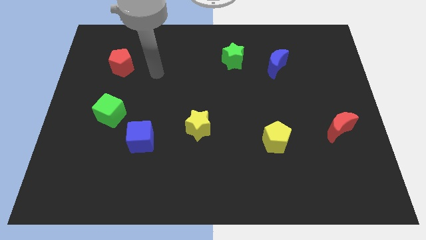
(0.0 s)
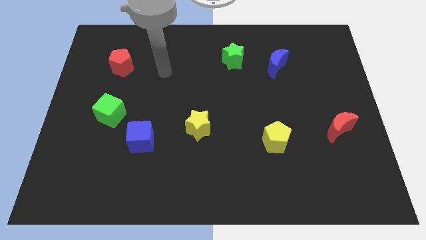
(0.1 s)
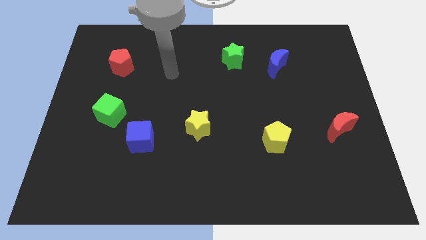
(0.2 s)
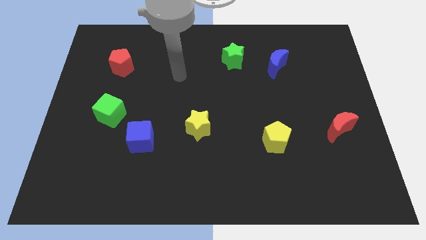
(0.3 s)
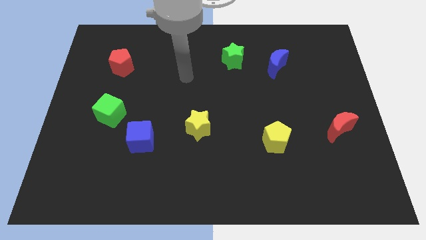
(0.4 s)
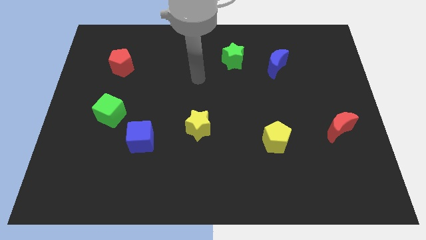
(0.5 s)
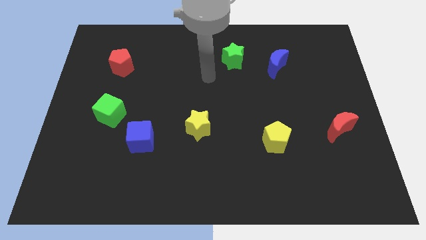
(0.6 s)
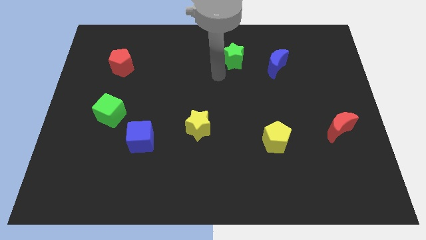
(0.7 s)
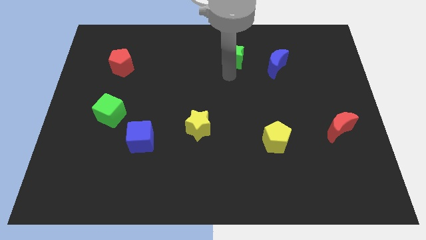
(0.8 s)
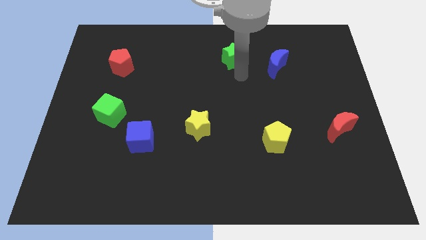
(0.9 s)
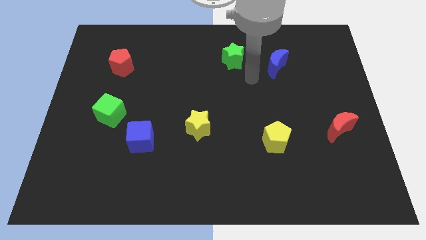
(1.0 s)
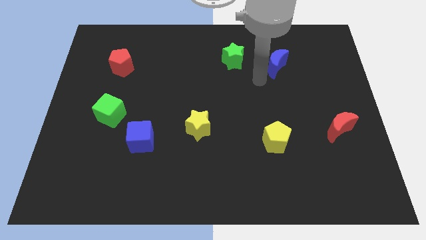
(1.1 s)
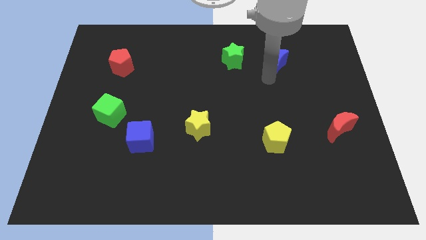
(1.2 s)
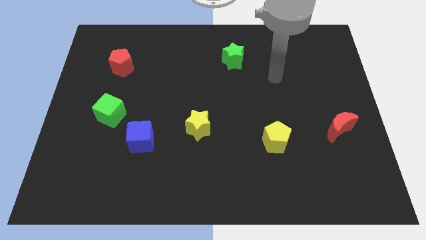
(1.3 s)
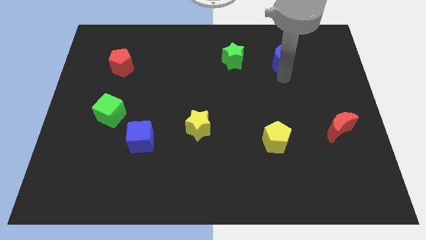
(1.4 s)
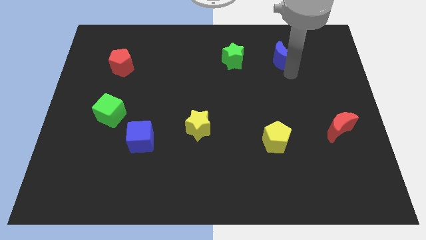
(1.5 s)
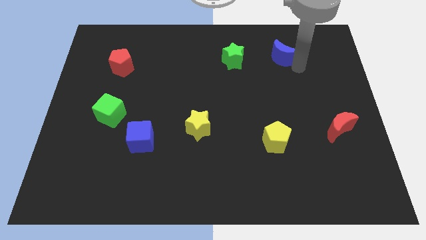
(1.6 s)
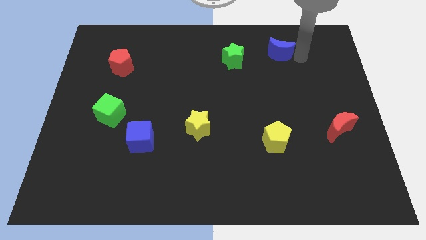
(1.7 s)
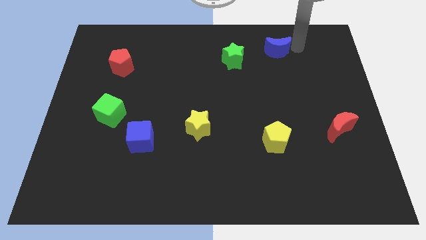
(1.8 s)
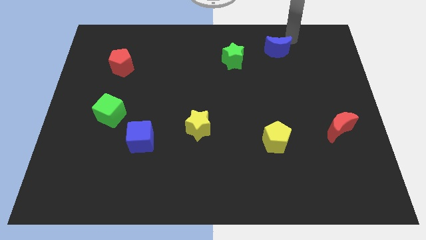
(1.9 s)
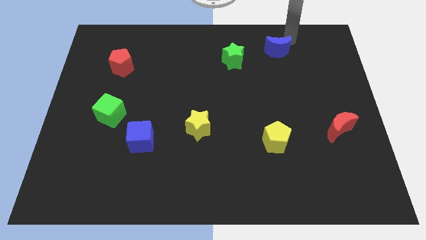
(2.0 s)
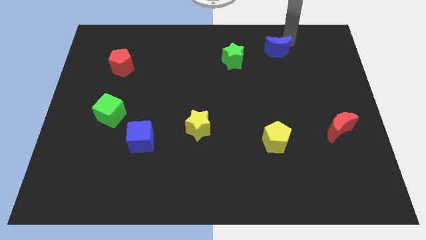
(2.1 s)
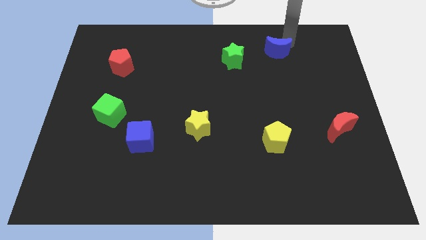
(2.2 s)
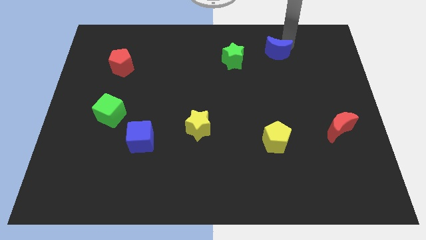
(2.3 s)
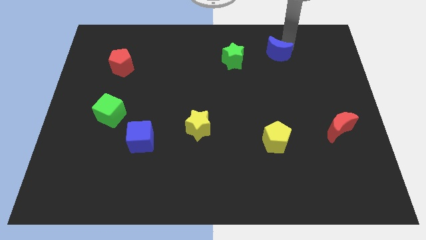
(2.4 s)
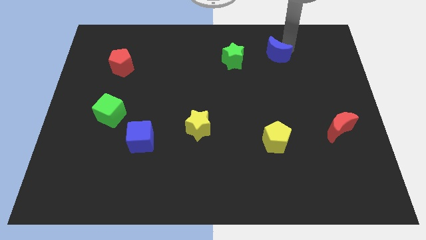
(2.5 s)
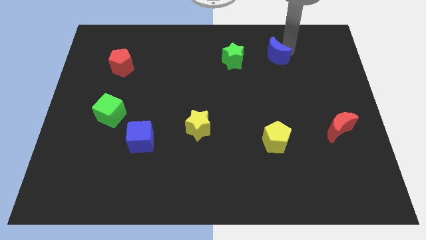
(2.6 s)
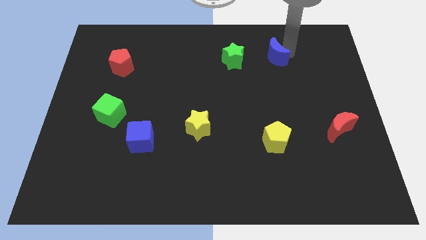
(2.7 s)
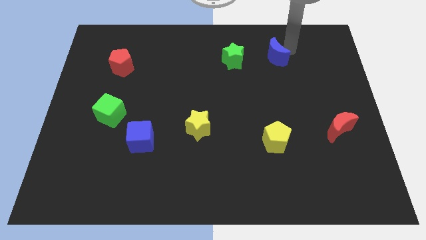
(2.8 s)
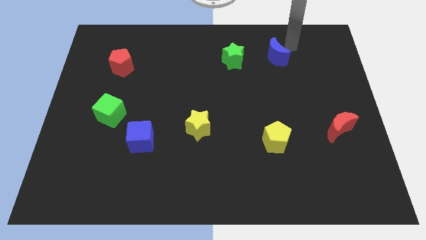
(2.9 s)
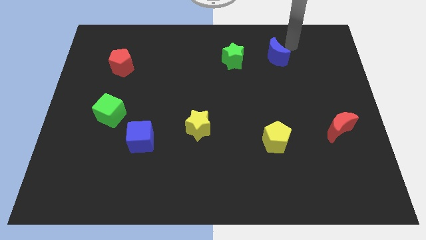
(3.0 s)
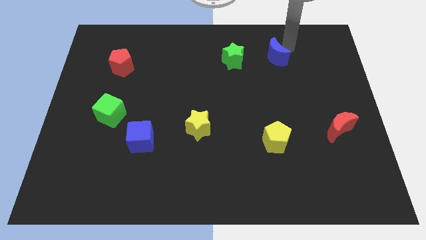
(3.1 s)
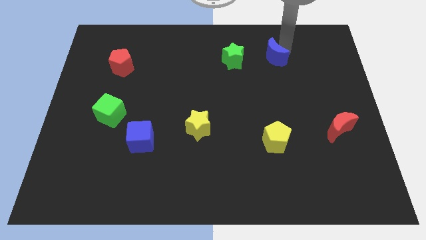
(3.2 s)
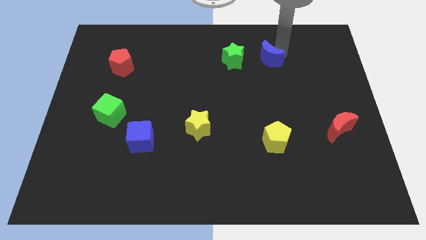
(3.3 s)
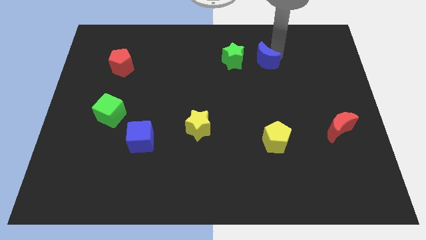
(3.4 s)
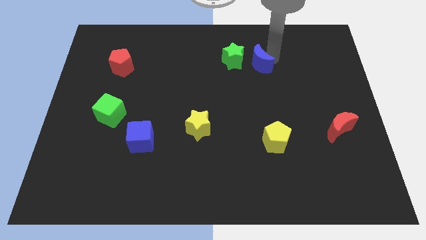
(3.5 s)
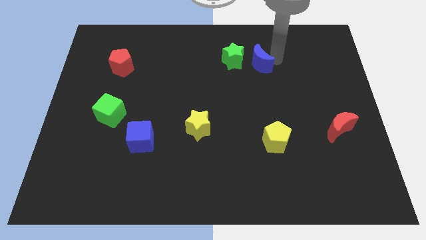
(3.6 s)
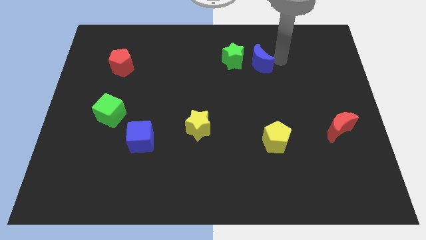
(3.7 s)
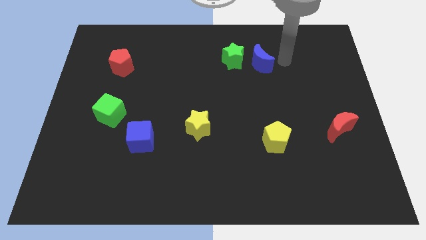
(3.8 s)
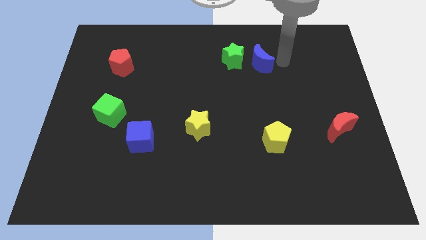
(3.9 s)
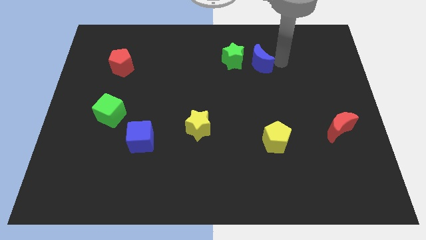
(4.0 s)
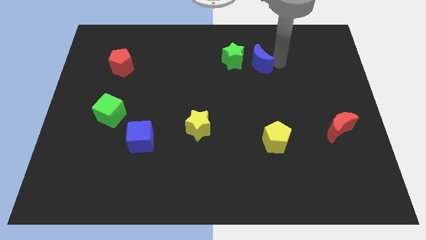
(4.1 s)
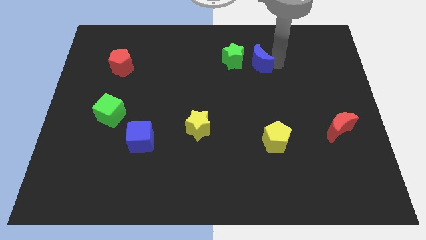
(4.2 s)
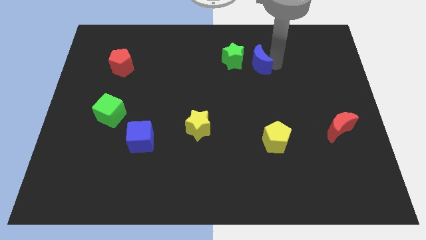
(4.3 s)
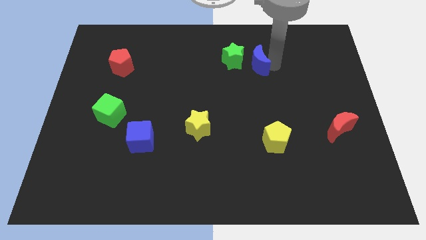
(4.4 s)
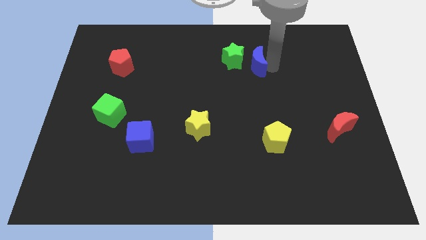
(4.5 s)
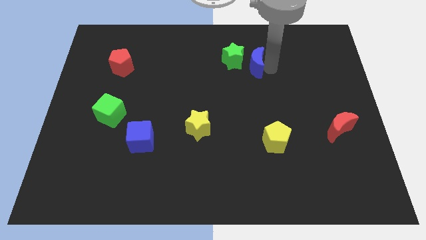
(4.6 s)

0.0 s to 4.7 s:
move the blue moon towards the green star

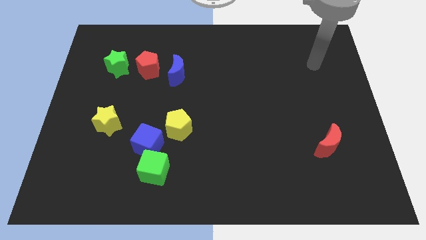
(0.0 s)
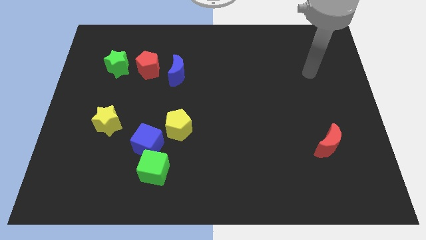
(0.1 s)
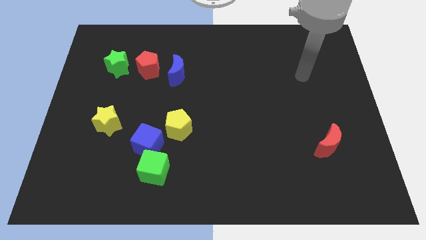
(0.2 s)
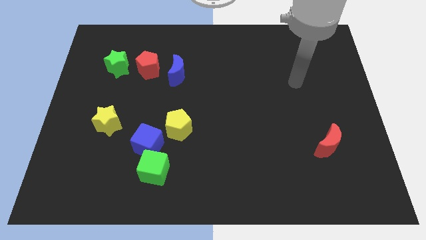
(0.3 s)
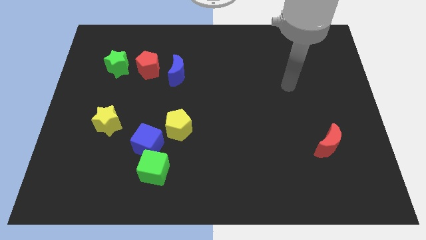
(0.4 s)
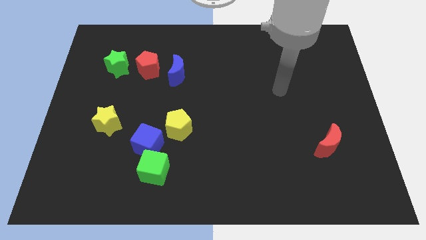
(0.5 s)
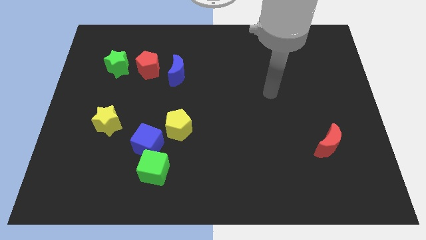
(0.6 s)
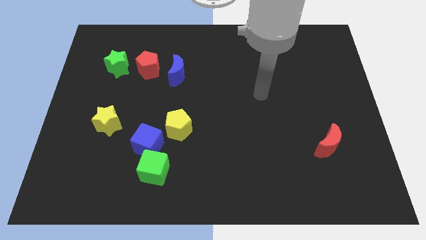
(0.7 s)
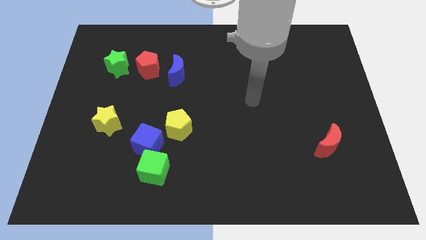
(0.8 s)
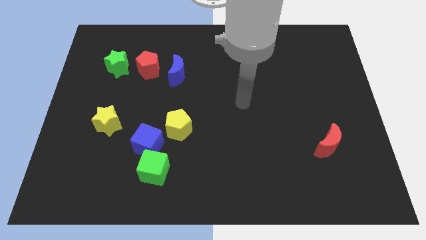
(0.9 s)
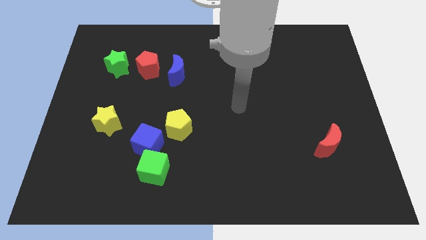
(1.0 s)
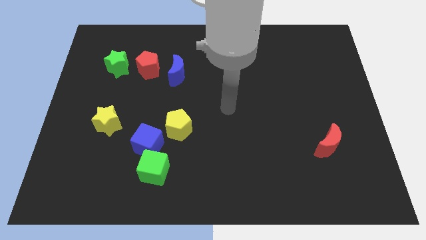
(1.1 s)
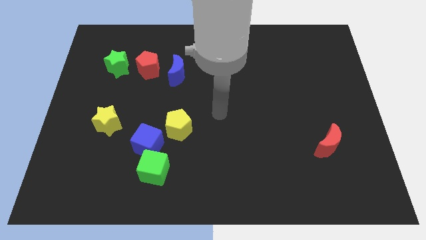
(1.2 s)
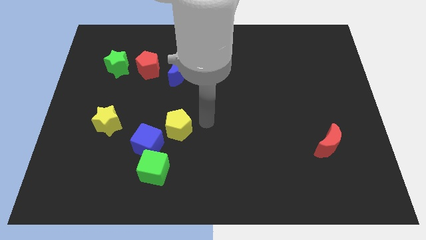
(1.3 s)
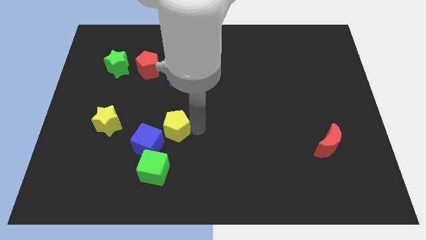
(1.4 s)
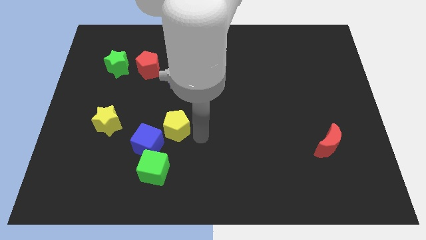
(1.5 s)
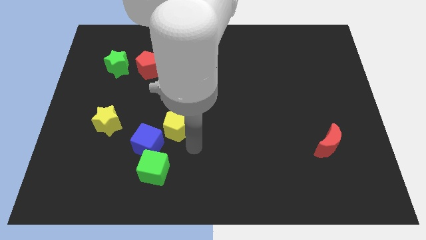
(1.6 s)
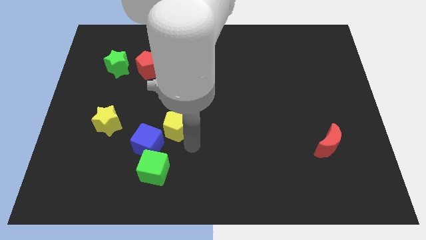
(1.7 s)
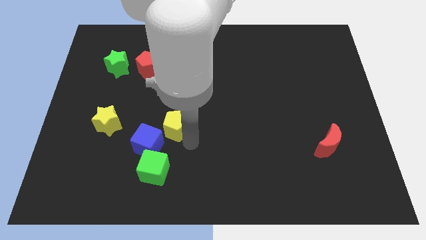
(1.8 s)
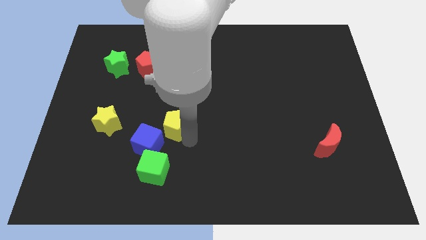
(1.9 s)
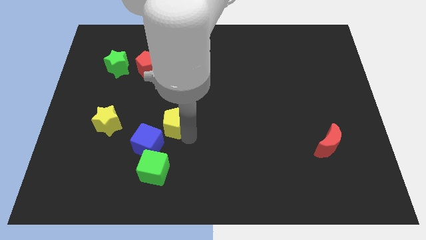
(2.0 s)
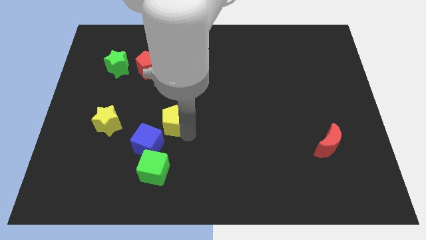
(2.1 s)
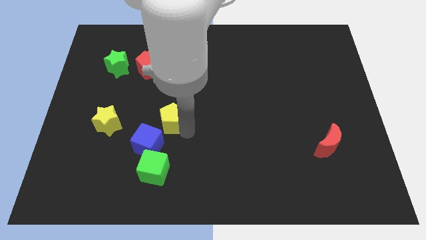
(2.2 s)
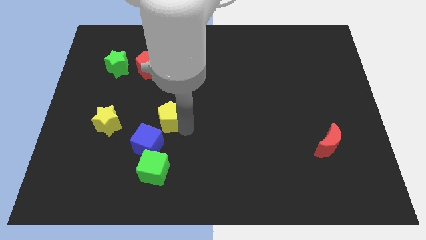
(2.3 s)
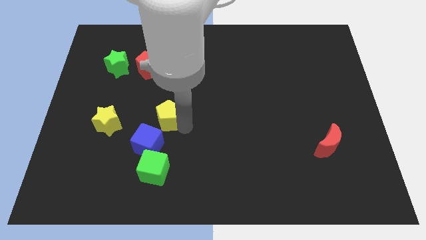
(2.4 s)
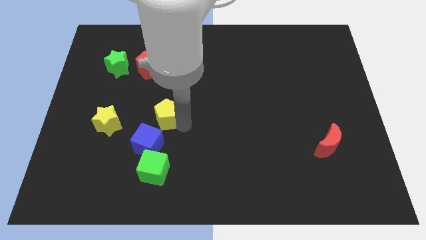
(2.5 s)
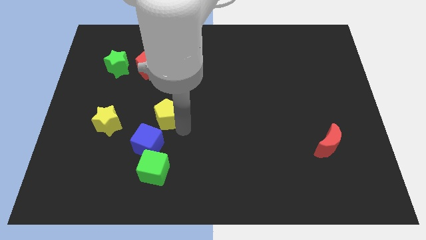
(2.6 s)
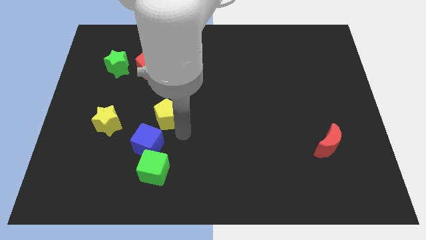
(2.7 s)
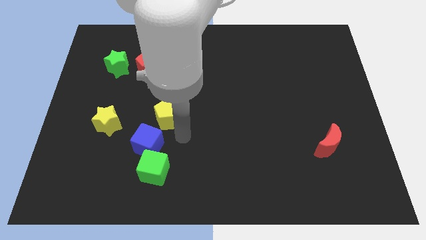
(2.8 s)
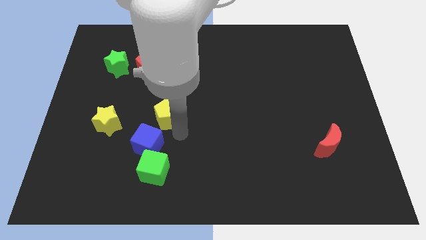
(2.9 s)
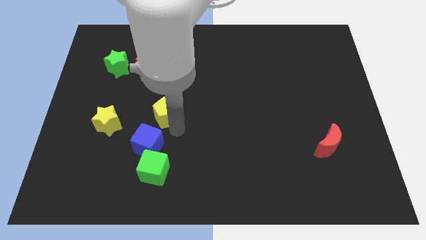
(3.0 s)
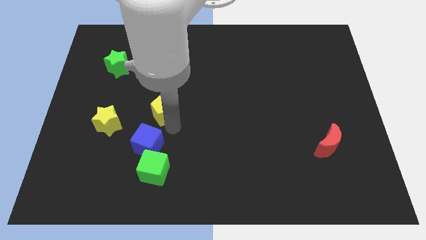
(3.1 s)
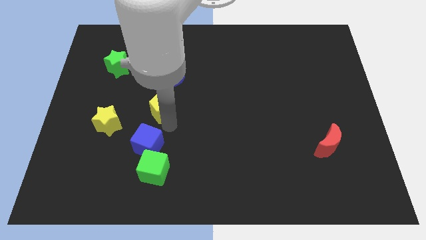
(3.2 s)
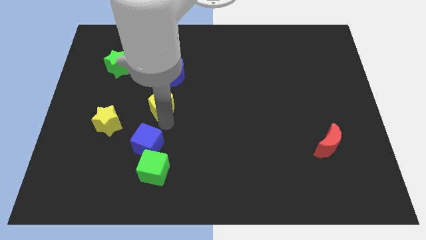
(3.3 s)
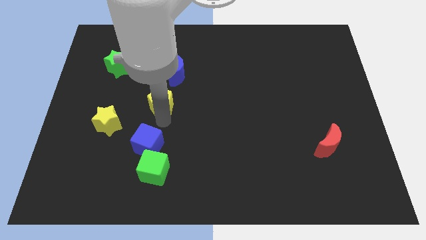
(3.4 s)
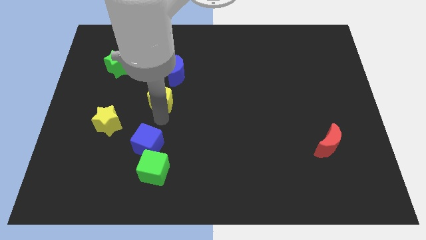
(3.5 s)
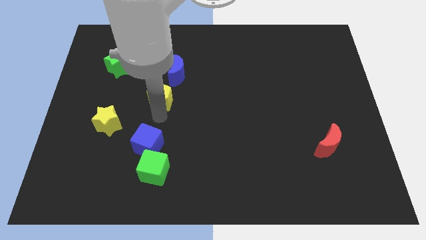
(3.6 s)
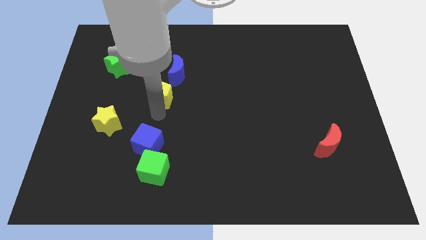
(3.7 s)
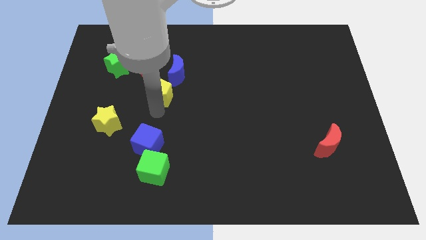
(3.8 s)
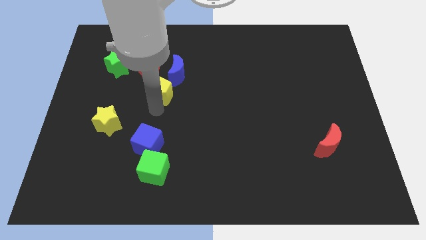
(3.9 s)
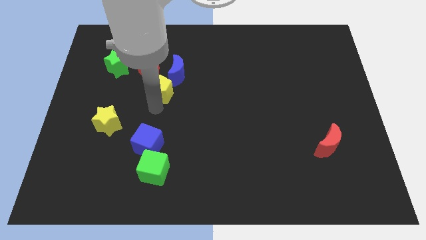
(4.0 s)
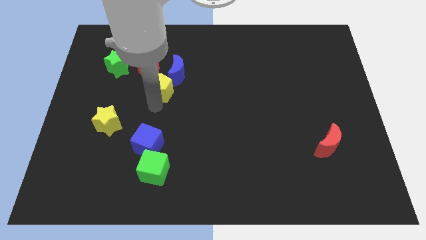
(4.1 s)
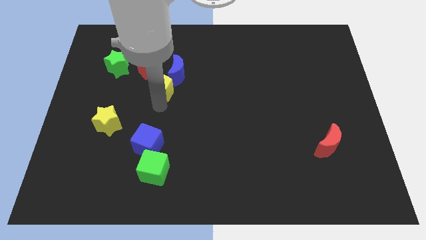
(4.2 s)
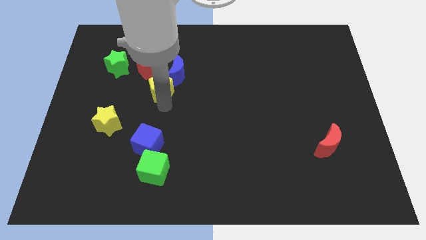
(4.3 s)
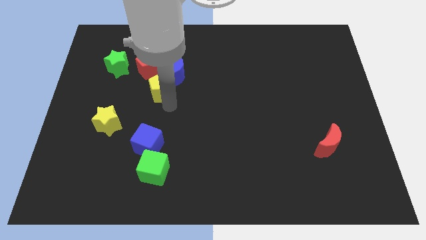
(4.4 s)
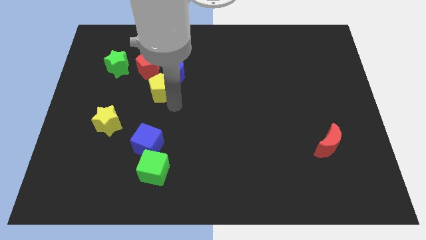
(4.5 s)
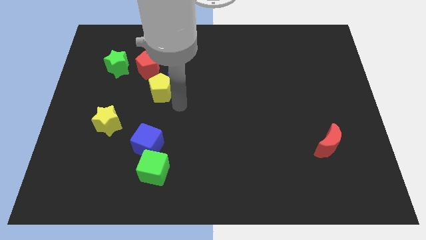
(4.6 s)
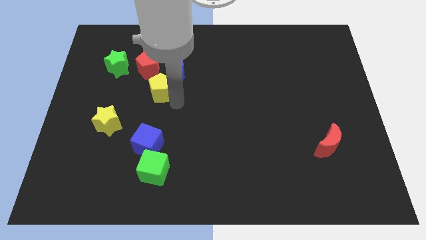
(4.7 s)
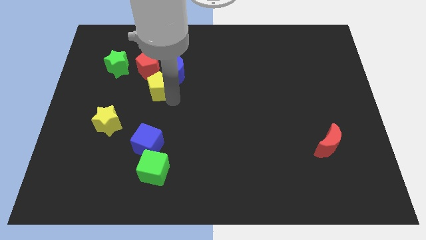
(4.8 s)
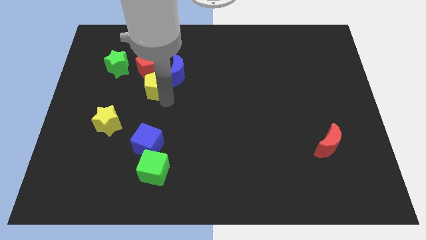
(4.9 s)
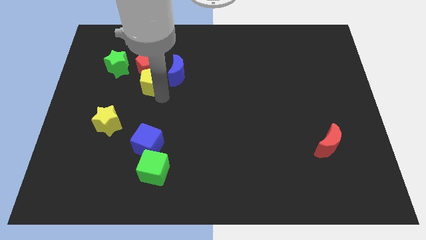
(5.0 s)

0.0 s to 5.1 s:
slide the yellow pentagon close to the red pentagon
